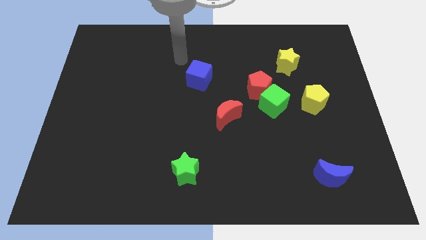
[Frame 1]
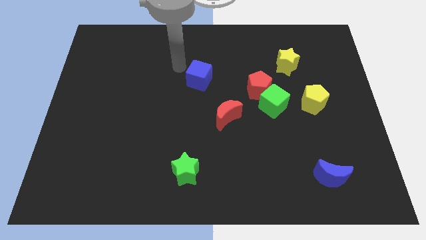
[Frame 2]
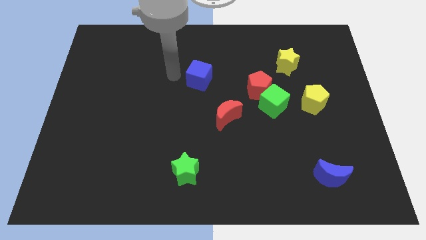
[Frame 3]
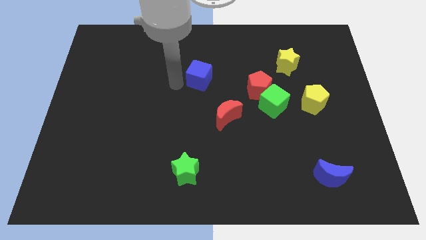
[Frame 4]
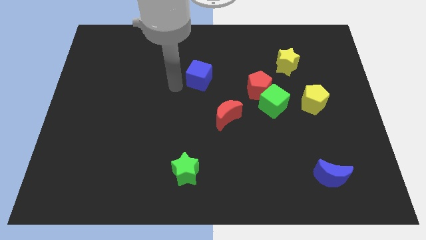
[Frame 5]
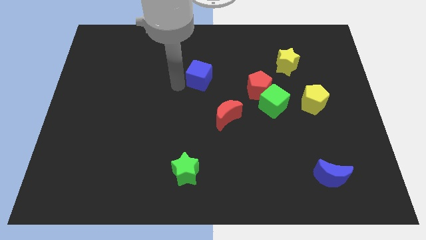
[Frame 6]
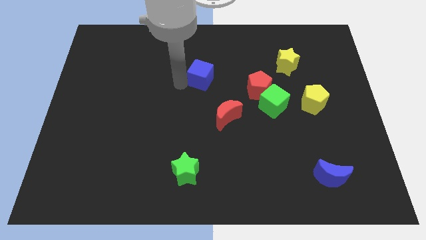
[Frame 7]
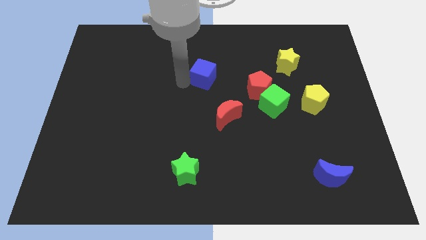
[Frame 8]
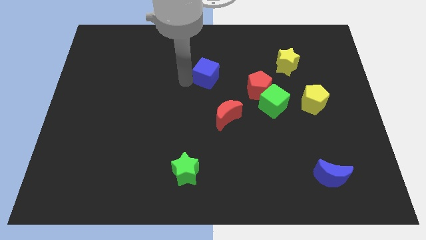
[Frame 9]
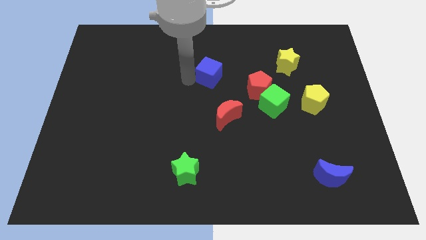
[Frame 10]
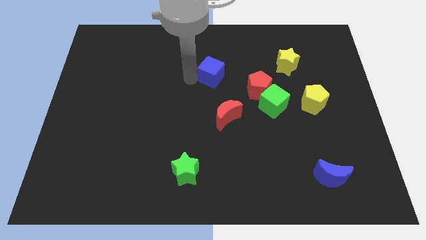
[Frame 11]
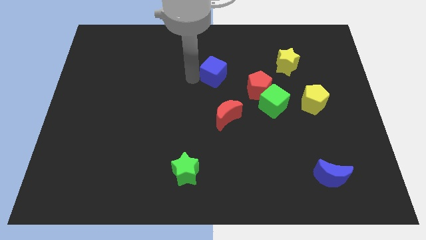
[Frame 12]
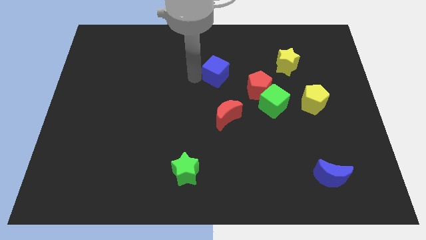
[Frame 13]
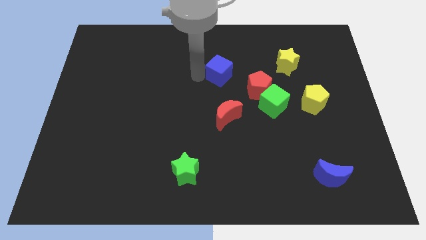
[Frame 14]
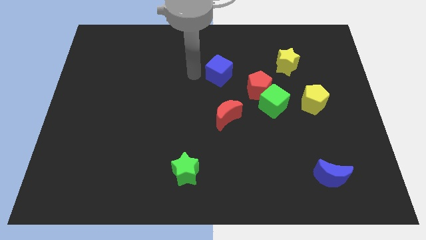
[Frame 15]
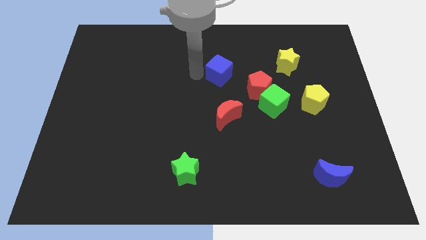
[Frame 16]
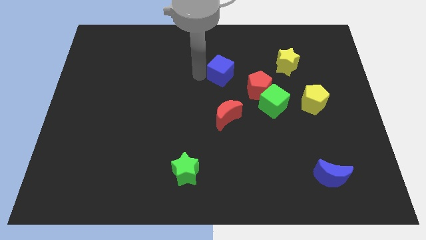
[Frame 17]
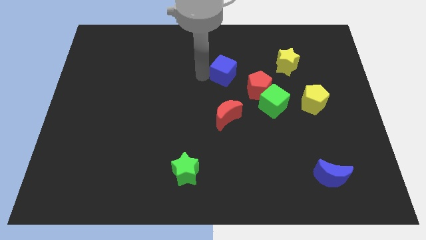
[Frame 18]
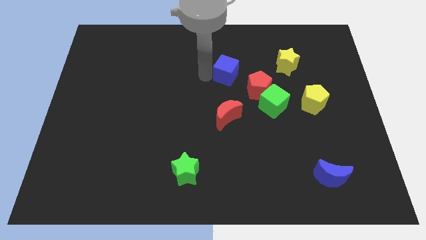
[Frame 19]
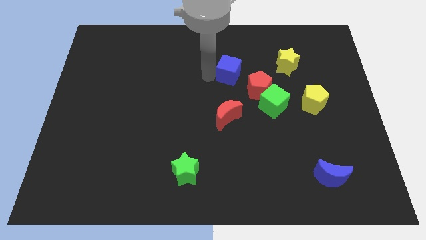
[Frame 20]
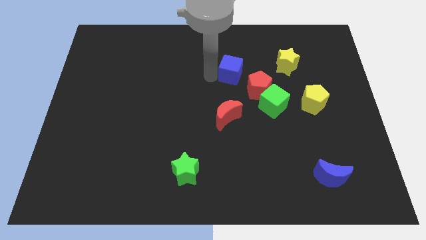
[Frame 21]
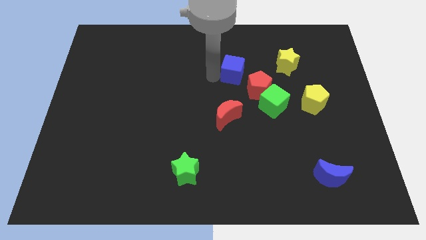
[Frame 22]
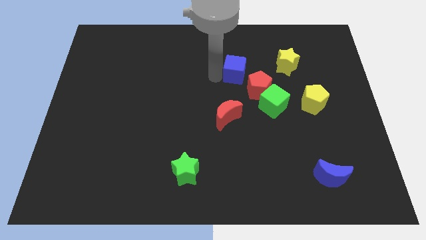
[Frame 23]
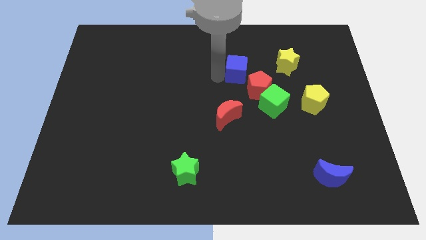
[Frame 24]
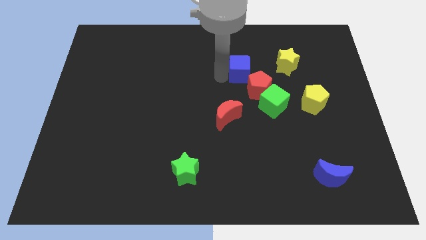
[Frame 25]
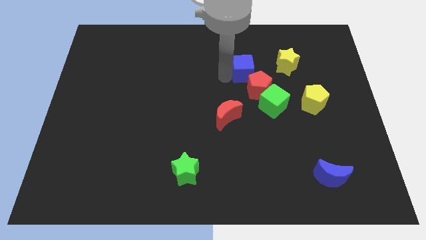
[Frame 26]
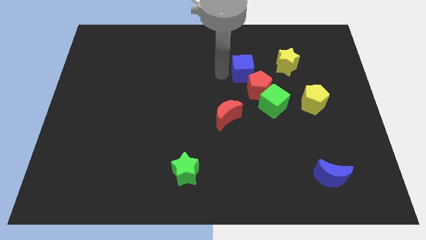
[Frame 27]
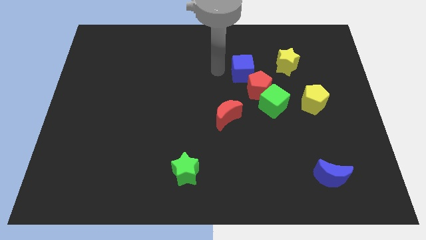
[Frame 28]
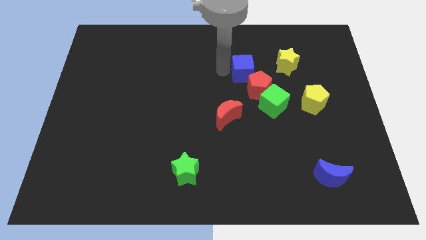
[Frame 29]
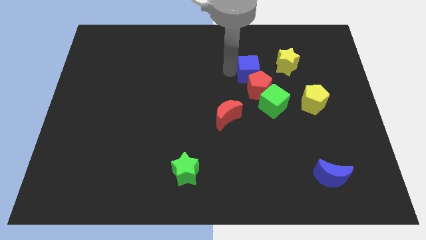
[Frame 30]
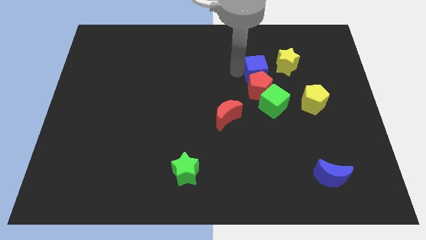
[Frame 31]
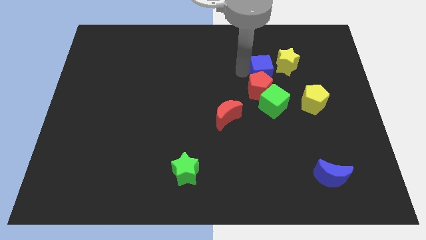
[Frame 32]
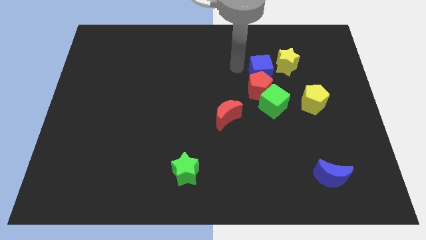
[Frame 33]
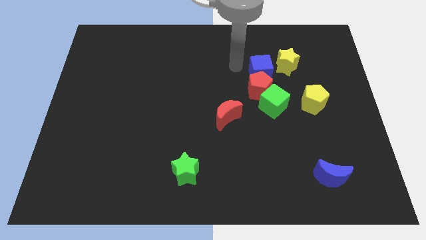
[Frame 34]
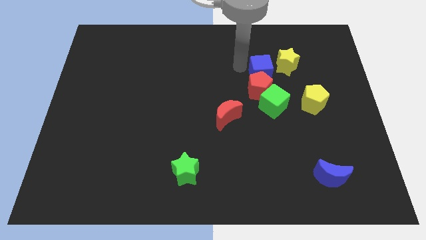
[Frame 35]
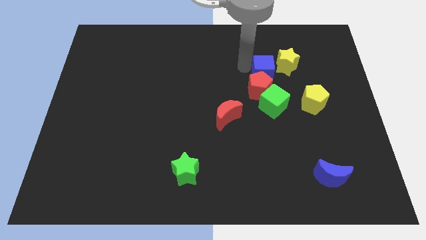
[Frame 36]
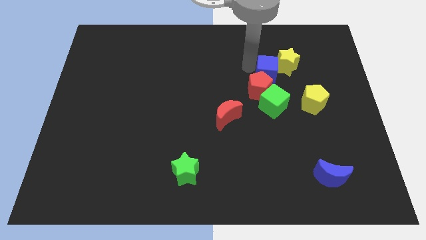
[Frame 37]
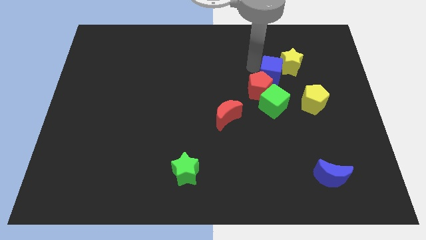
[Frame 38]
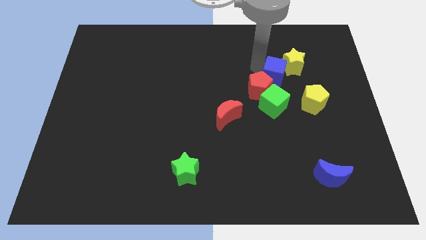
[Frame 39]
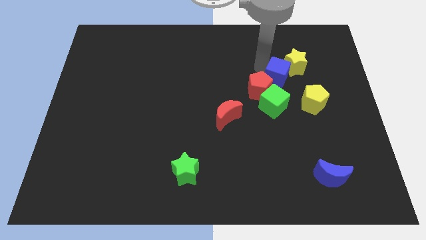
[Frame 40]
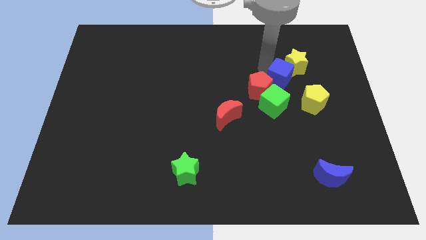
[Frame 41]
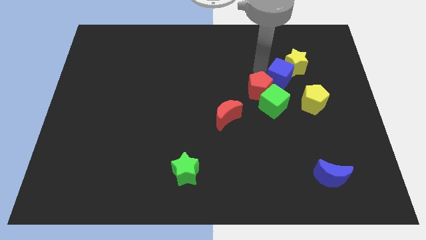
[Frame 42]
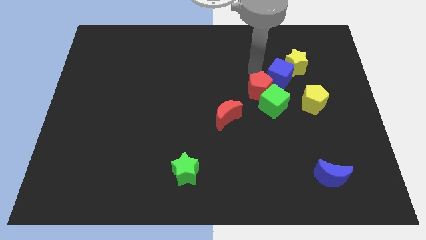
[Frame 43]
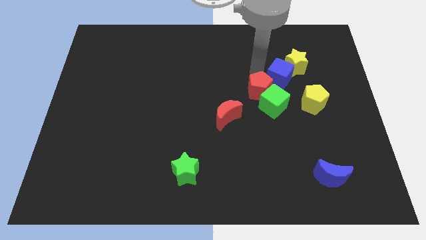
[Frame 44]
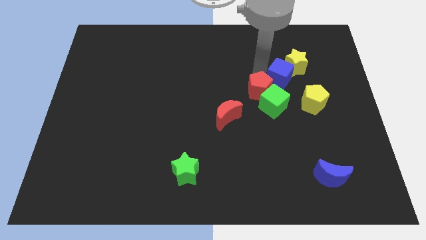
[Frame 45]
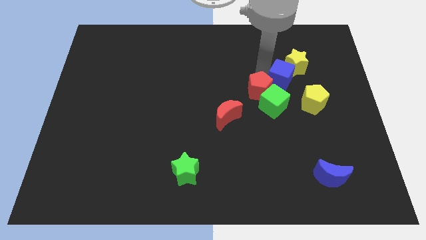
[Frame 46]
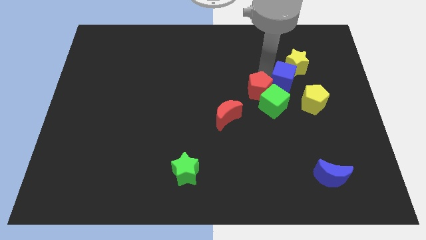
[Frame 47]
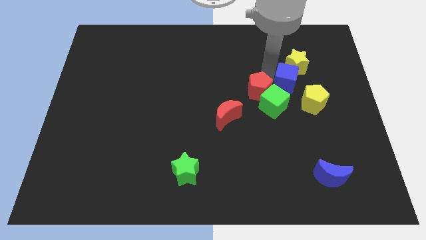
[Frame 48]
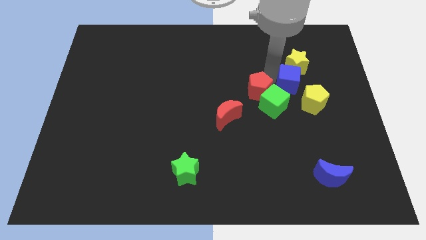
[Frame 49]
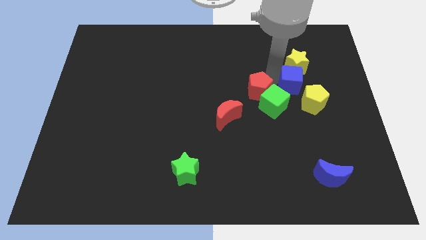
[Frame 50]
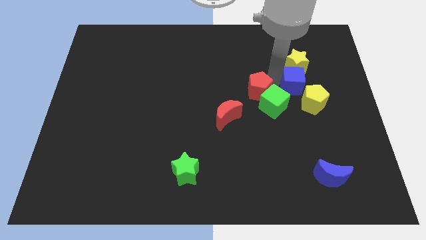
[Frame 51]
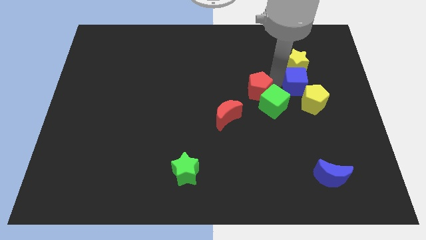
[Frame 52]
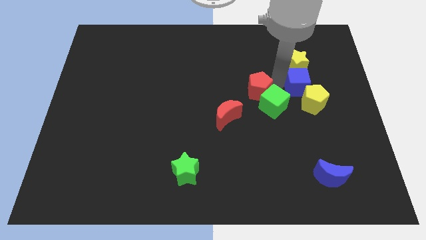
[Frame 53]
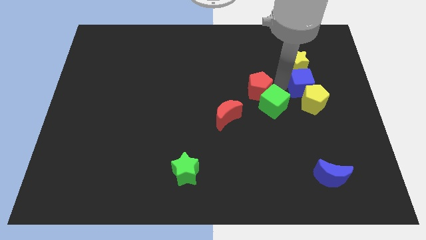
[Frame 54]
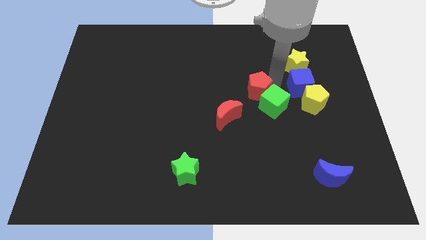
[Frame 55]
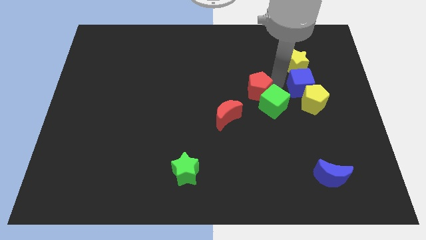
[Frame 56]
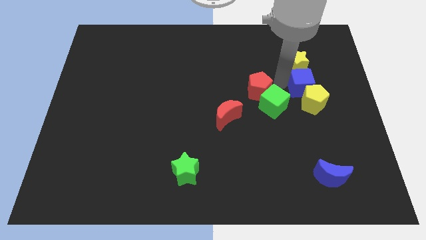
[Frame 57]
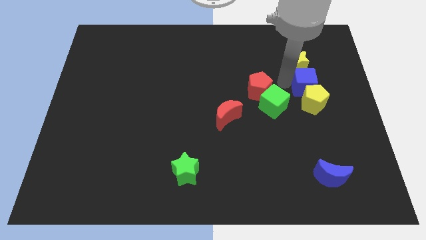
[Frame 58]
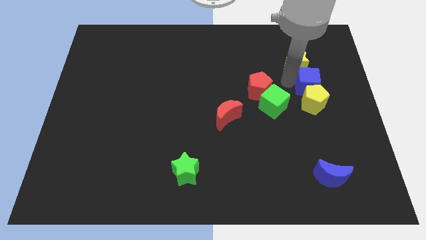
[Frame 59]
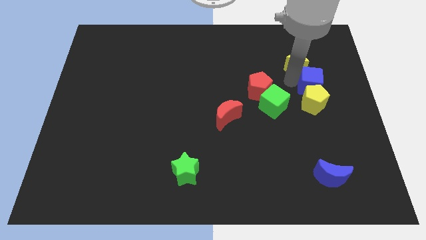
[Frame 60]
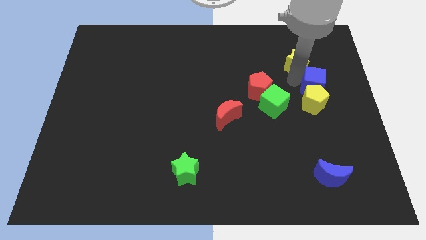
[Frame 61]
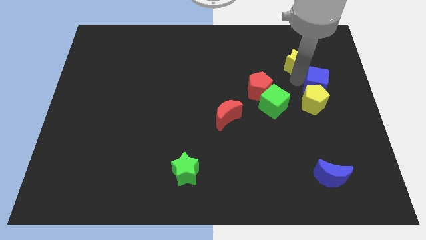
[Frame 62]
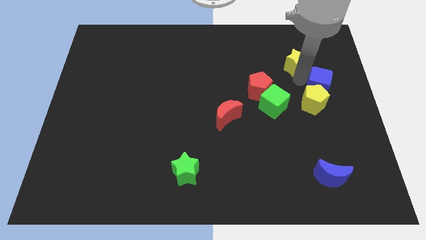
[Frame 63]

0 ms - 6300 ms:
move the blue cube to the right side

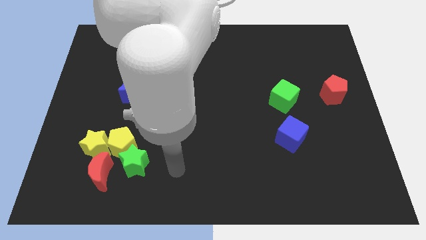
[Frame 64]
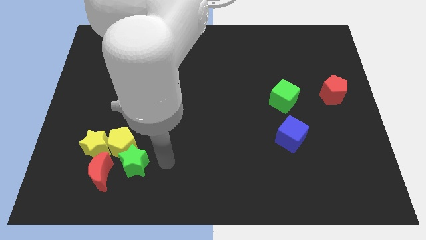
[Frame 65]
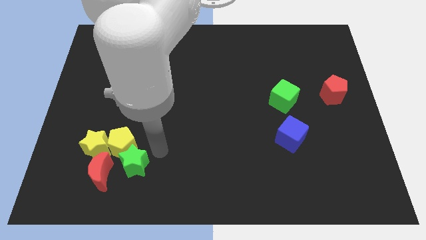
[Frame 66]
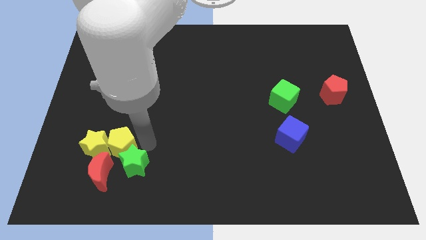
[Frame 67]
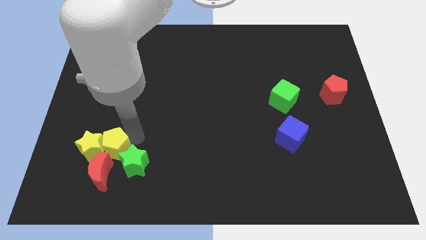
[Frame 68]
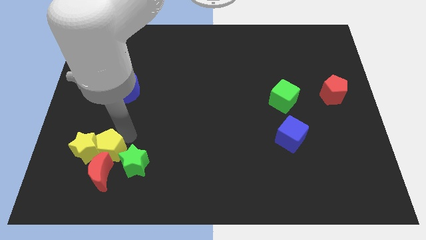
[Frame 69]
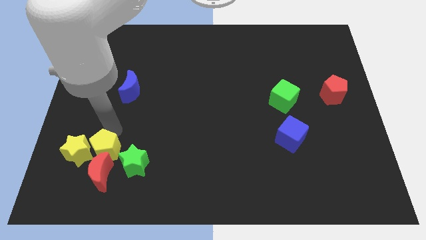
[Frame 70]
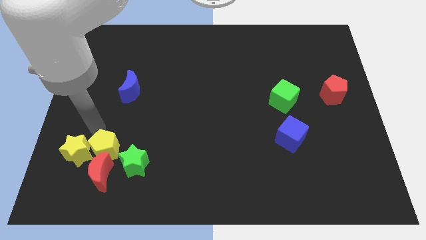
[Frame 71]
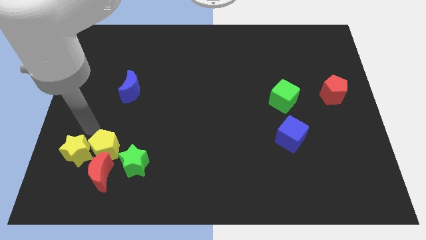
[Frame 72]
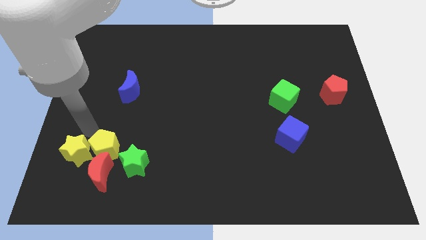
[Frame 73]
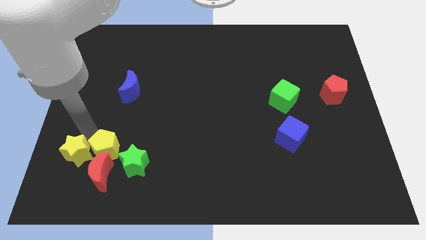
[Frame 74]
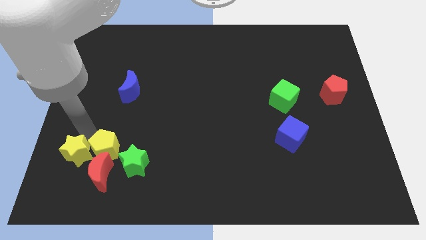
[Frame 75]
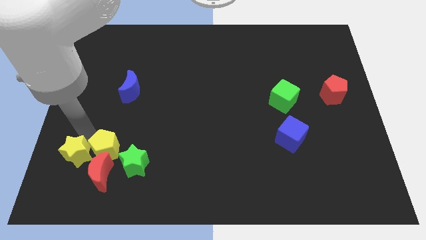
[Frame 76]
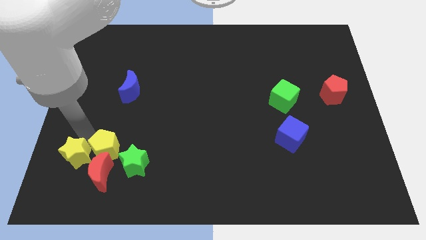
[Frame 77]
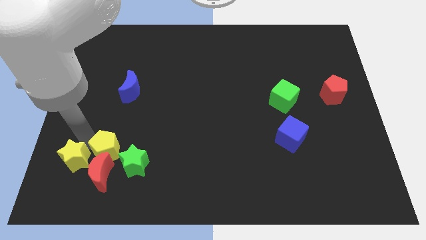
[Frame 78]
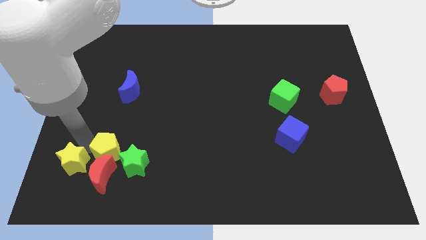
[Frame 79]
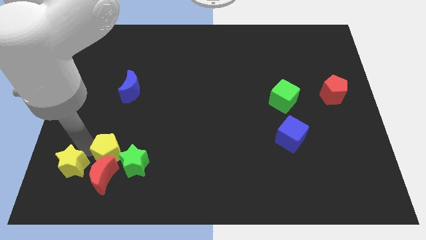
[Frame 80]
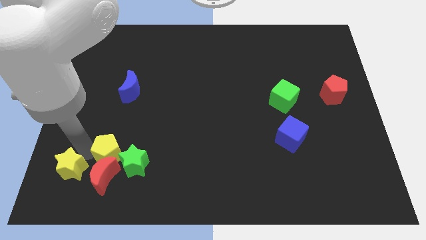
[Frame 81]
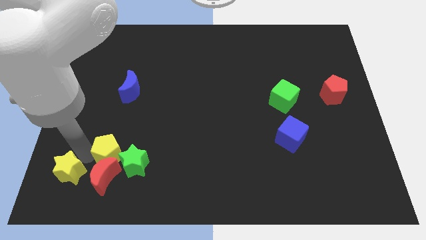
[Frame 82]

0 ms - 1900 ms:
put the yellow star to the bottom left
